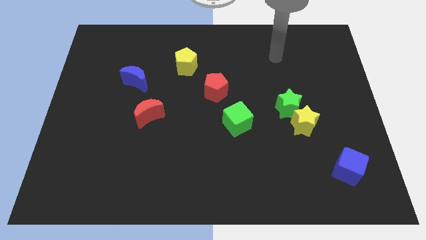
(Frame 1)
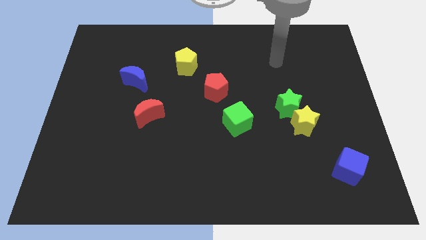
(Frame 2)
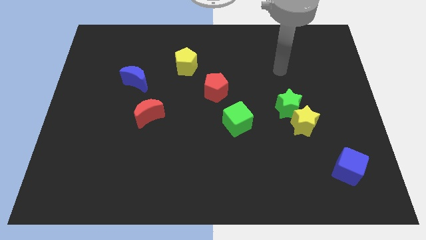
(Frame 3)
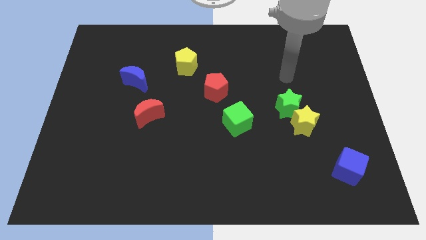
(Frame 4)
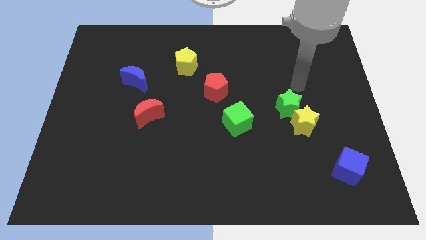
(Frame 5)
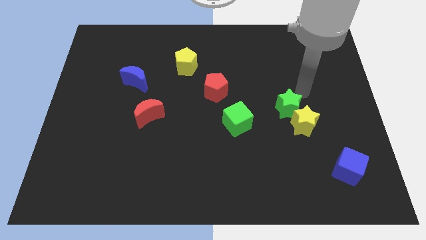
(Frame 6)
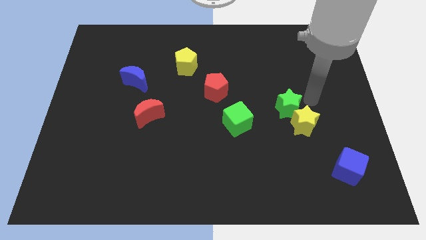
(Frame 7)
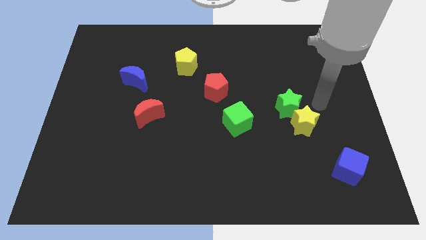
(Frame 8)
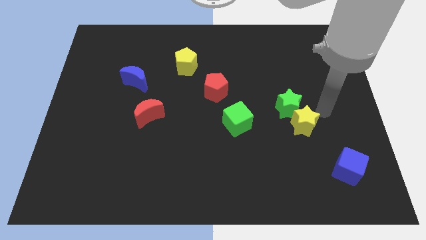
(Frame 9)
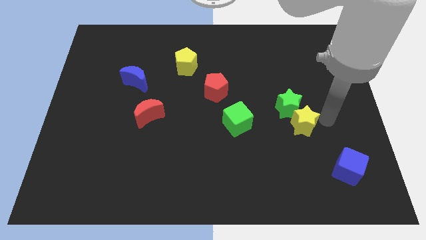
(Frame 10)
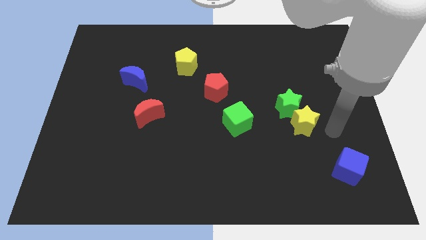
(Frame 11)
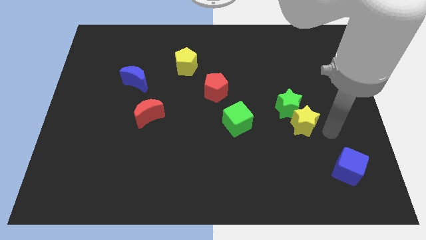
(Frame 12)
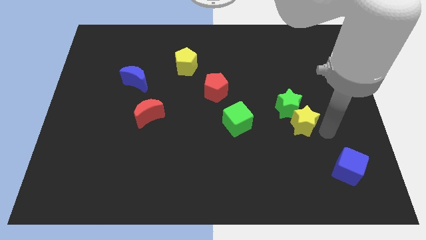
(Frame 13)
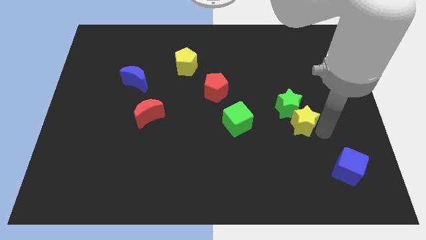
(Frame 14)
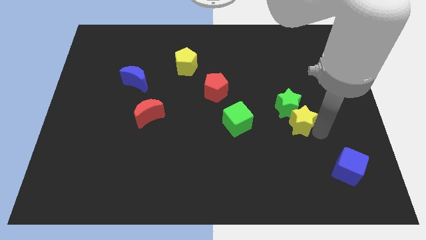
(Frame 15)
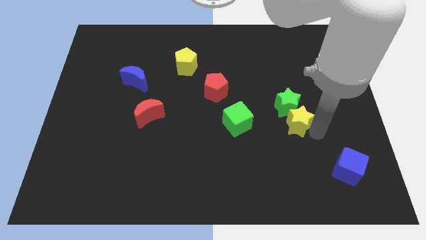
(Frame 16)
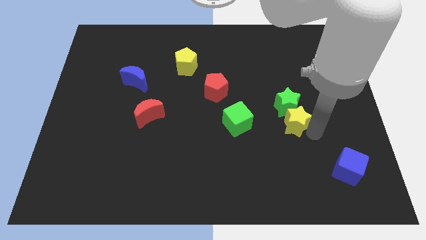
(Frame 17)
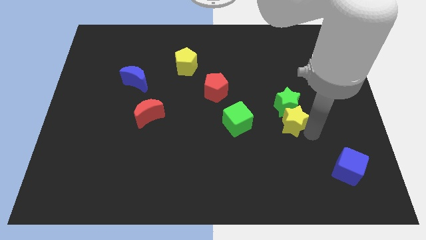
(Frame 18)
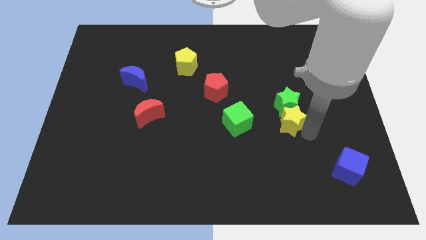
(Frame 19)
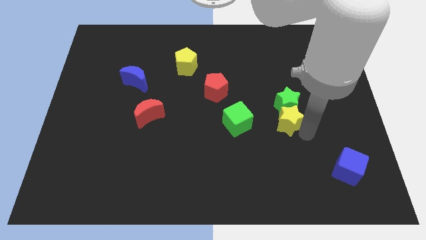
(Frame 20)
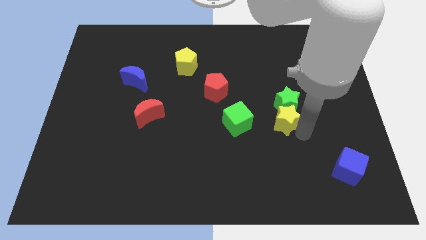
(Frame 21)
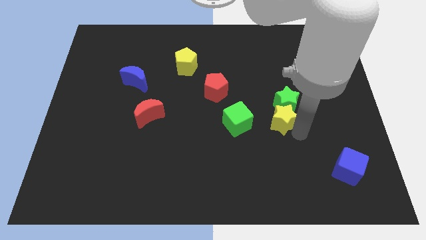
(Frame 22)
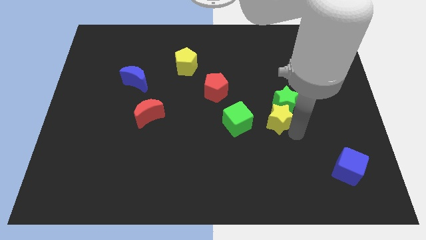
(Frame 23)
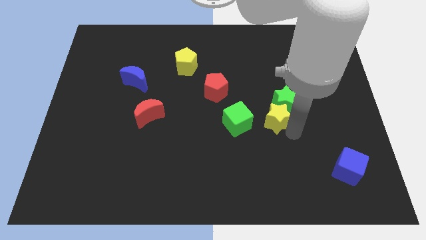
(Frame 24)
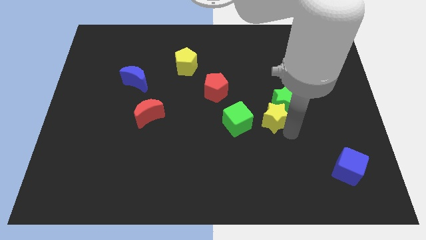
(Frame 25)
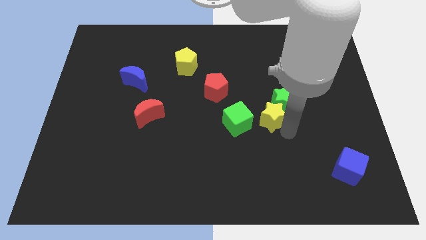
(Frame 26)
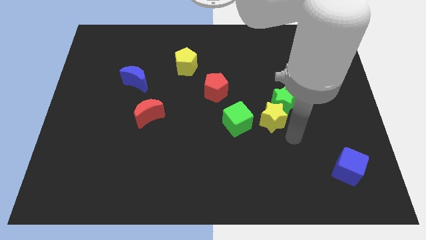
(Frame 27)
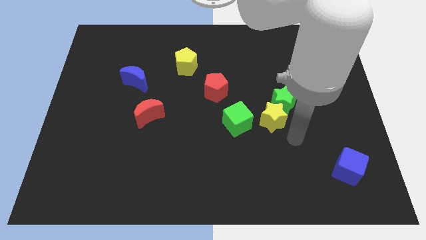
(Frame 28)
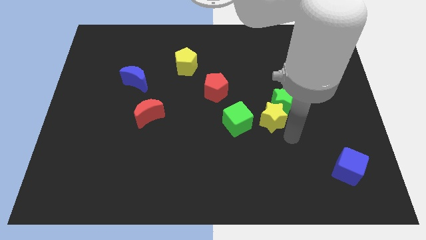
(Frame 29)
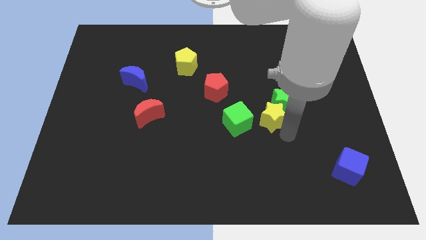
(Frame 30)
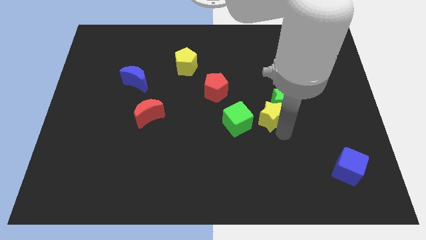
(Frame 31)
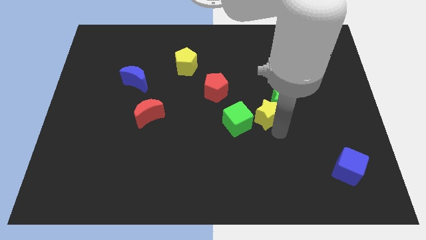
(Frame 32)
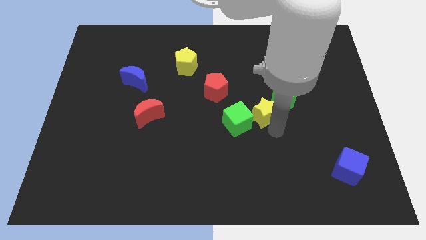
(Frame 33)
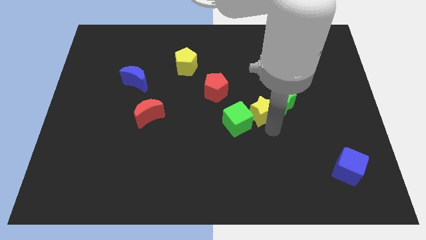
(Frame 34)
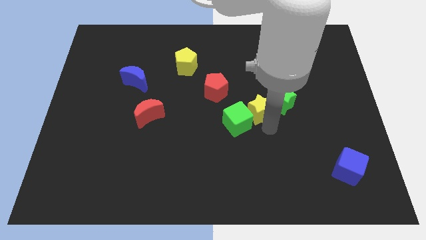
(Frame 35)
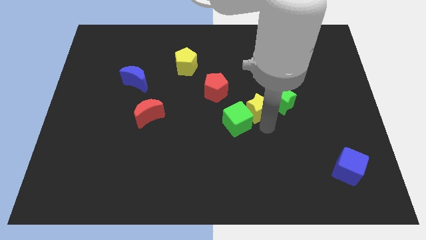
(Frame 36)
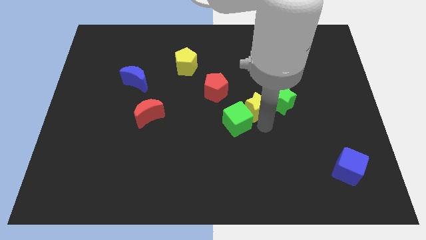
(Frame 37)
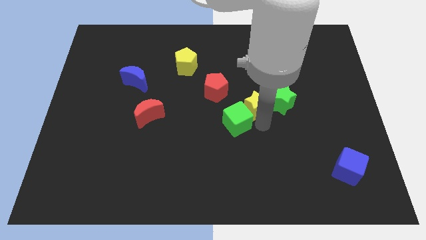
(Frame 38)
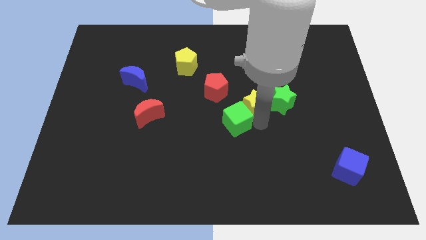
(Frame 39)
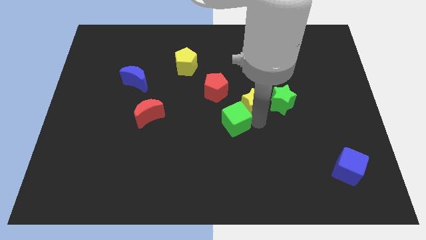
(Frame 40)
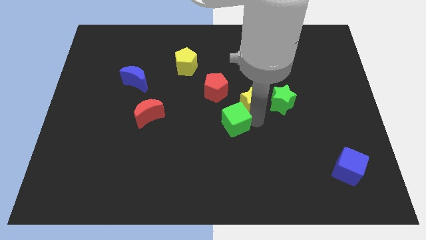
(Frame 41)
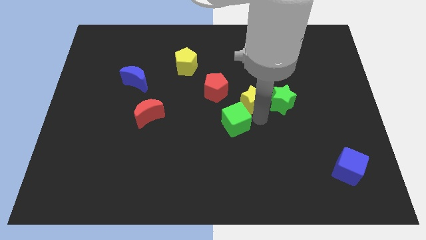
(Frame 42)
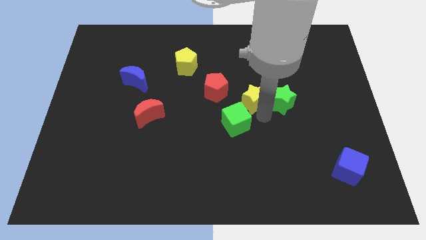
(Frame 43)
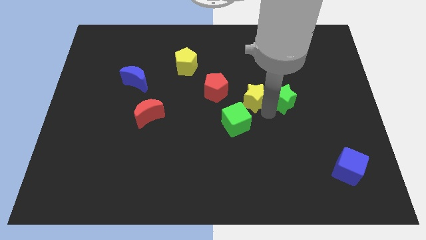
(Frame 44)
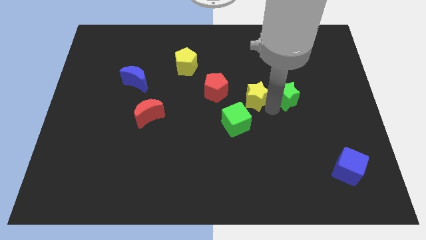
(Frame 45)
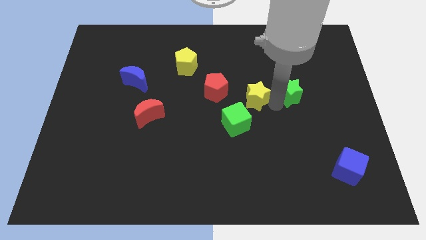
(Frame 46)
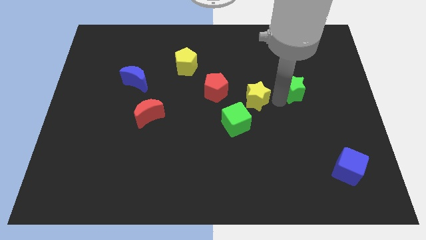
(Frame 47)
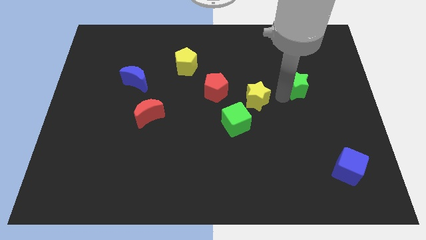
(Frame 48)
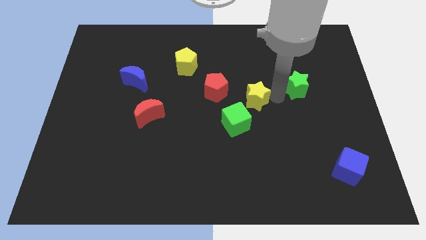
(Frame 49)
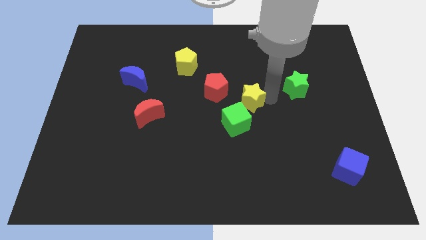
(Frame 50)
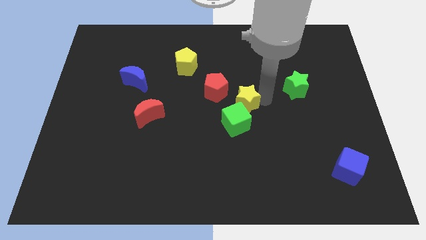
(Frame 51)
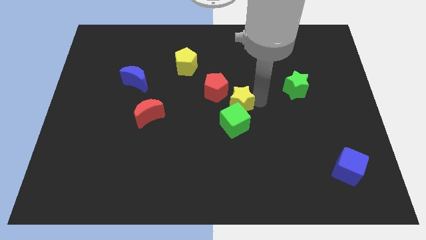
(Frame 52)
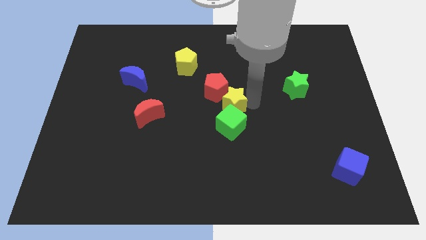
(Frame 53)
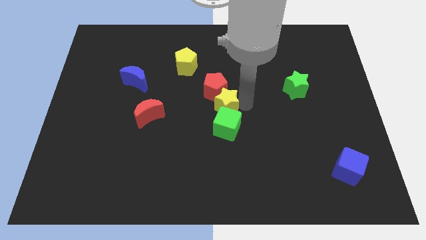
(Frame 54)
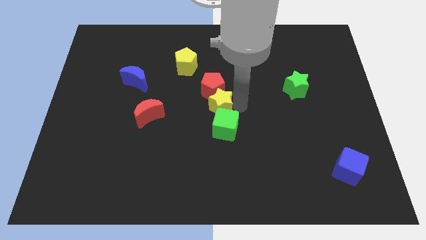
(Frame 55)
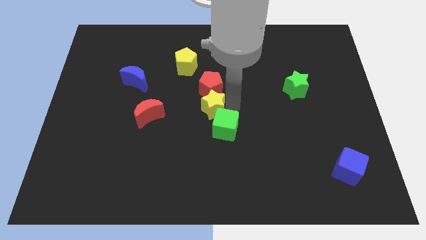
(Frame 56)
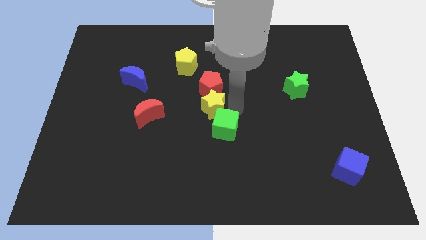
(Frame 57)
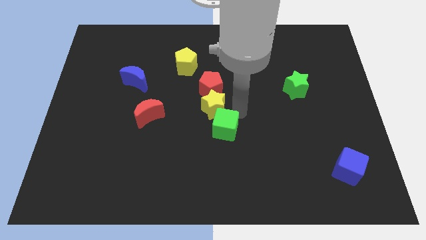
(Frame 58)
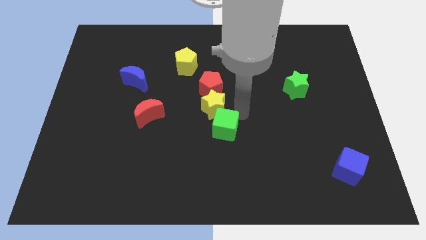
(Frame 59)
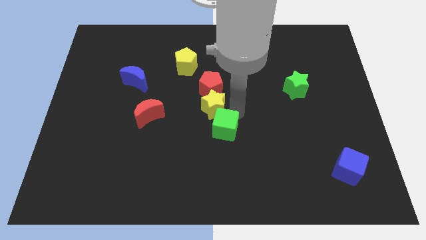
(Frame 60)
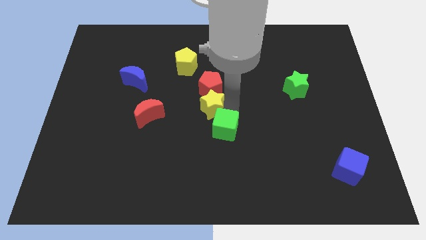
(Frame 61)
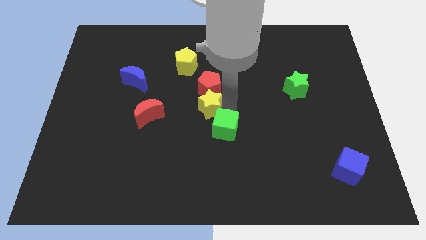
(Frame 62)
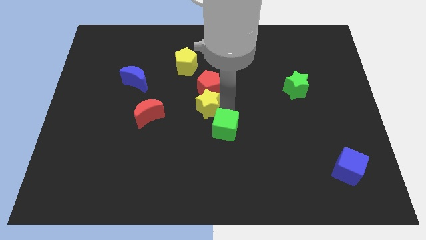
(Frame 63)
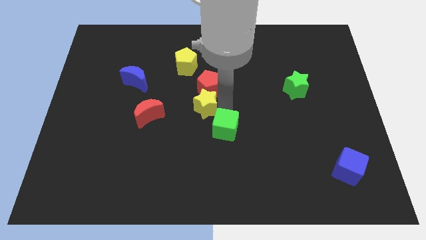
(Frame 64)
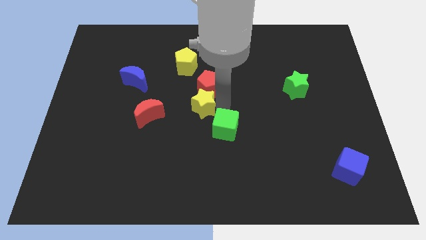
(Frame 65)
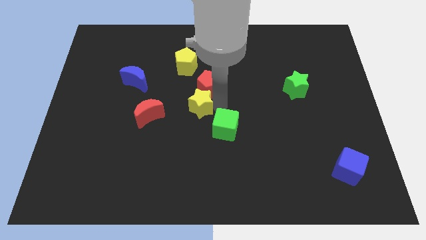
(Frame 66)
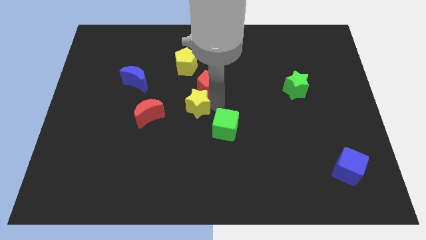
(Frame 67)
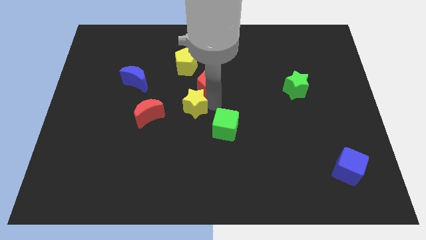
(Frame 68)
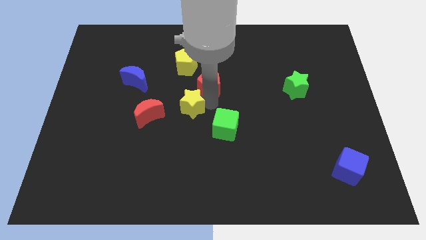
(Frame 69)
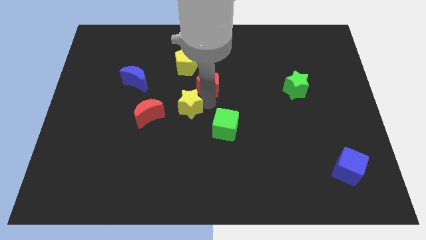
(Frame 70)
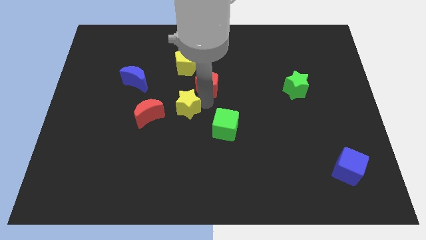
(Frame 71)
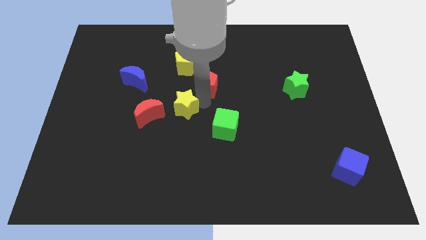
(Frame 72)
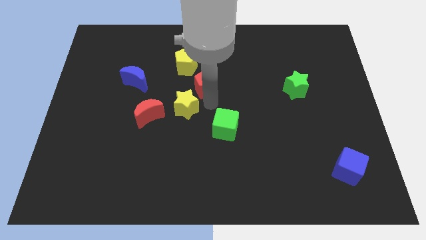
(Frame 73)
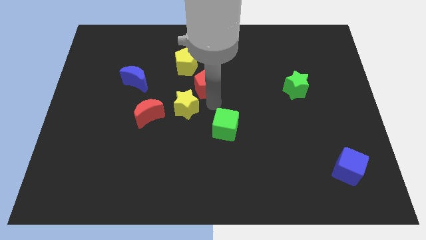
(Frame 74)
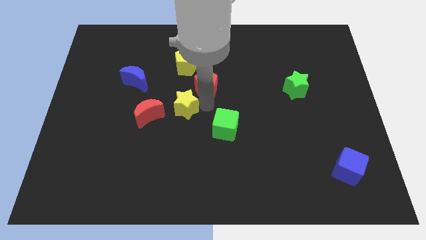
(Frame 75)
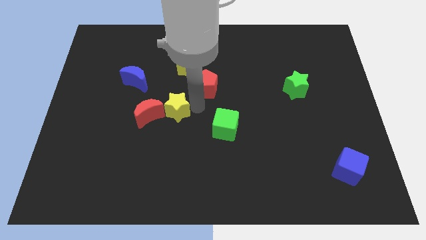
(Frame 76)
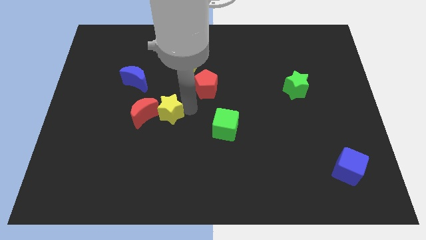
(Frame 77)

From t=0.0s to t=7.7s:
move the yellow star to the red moon
